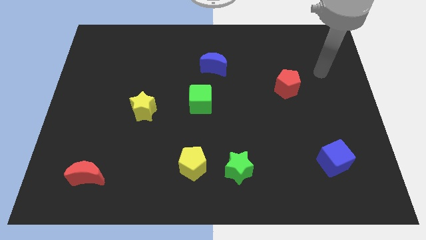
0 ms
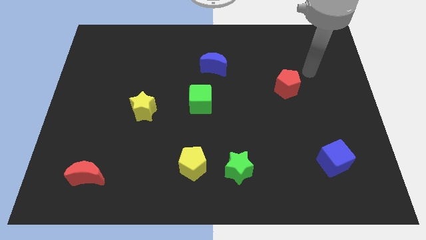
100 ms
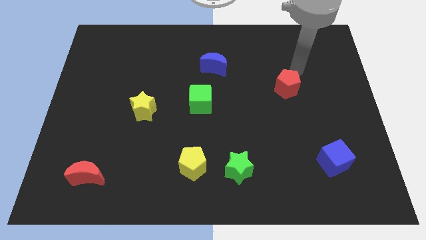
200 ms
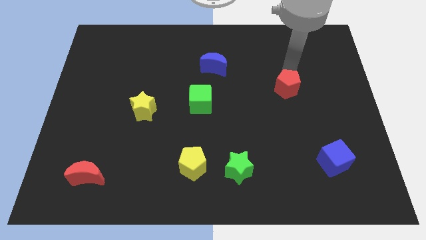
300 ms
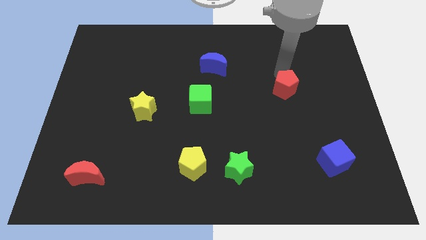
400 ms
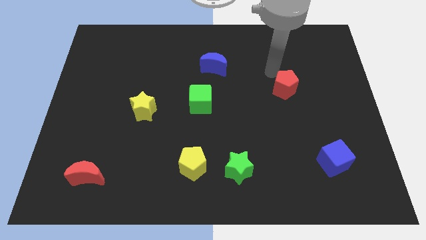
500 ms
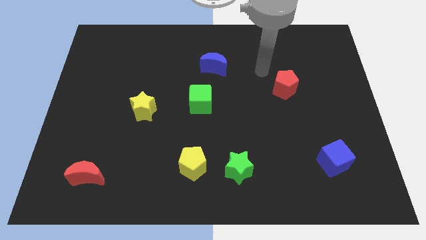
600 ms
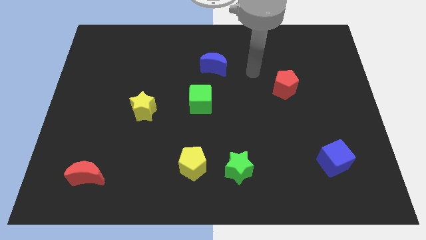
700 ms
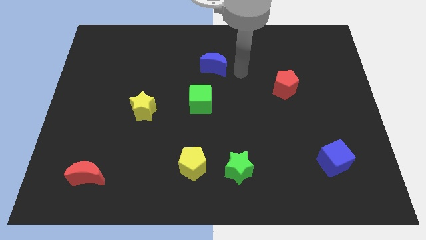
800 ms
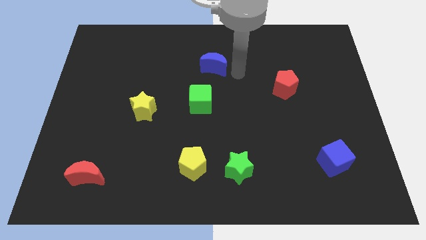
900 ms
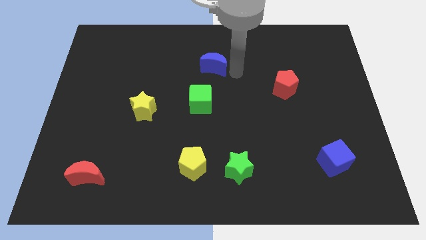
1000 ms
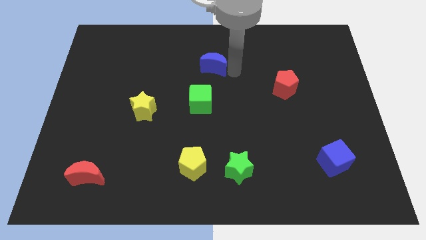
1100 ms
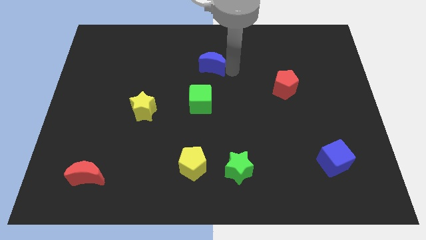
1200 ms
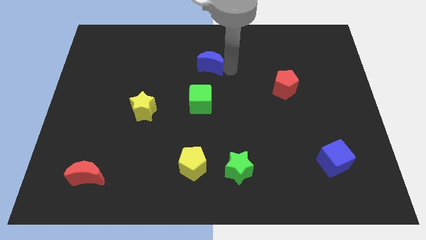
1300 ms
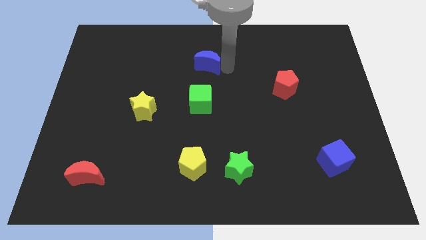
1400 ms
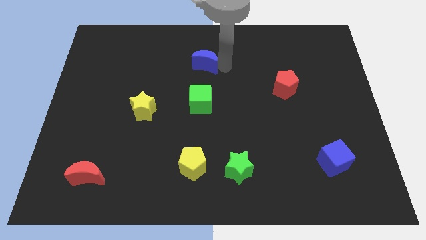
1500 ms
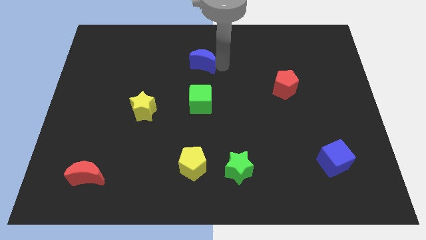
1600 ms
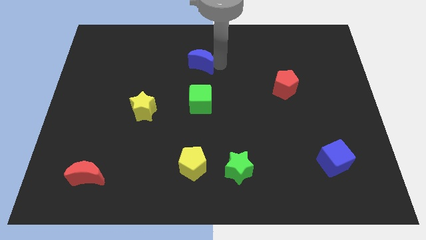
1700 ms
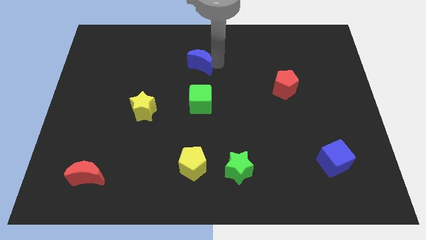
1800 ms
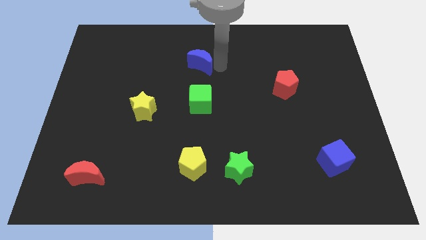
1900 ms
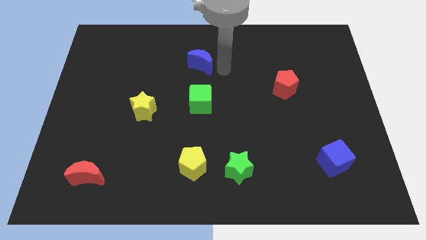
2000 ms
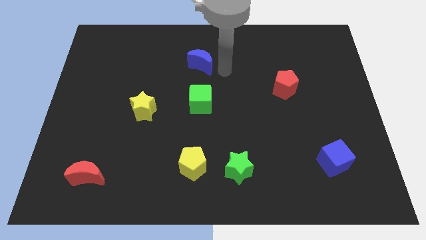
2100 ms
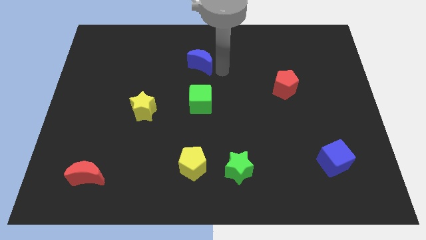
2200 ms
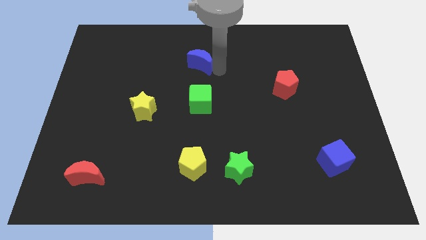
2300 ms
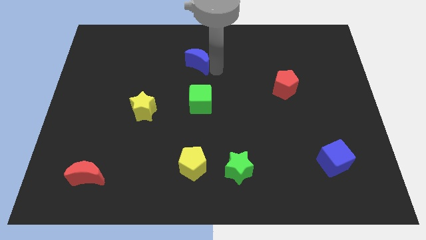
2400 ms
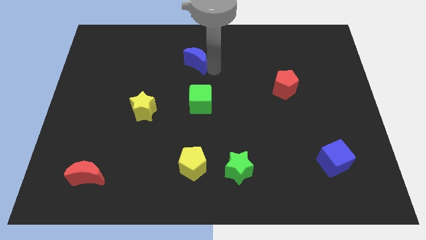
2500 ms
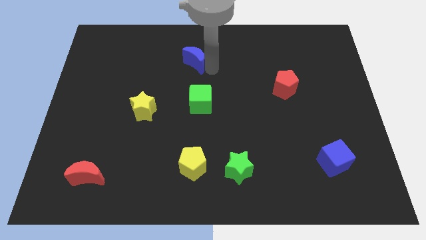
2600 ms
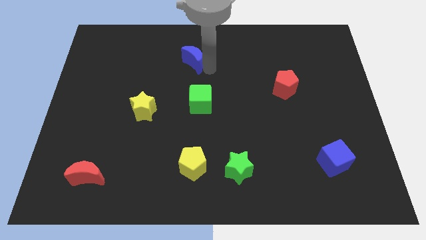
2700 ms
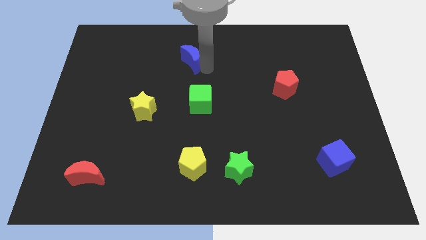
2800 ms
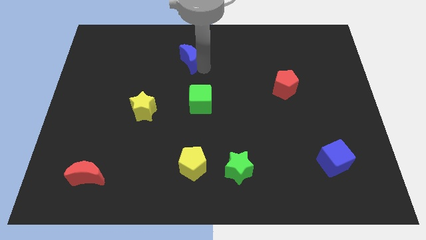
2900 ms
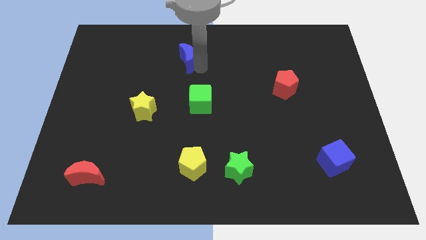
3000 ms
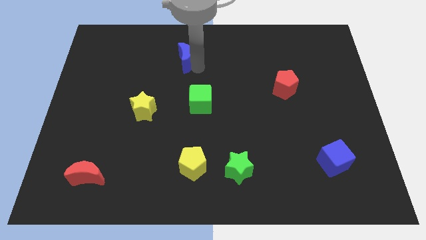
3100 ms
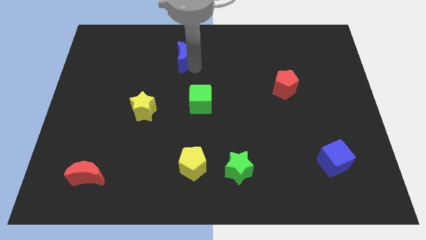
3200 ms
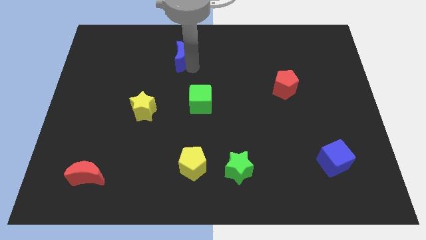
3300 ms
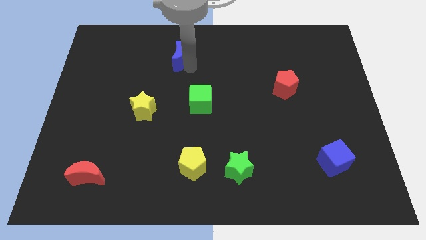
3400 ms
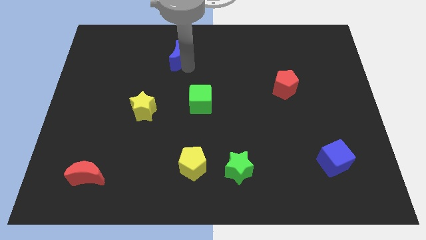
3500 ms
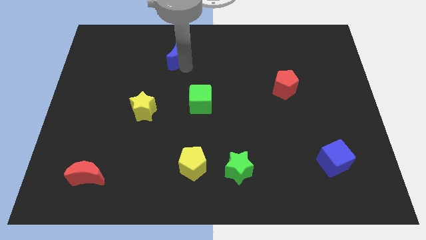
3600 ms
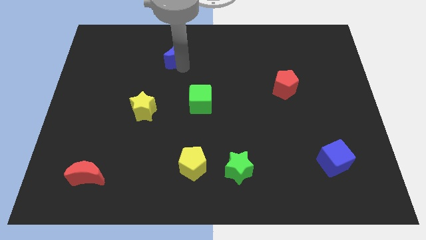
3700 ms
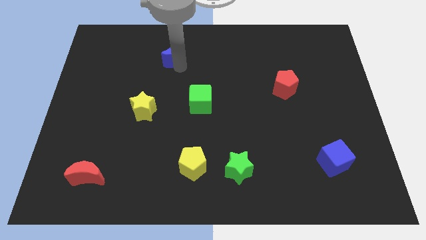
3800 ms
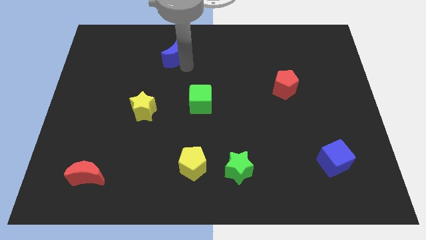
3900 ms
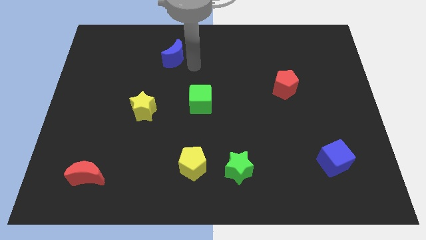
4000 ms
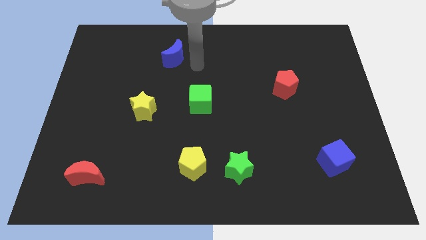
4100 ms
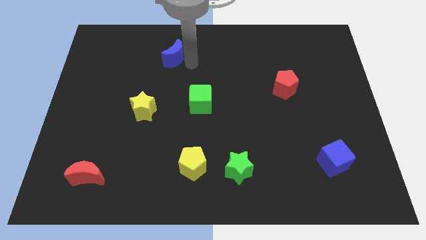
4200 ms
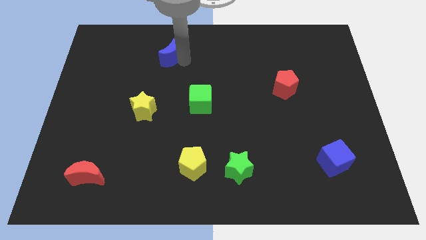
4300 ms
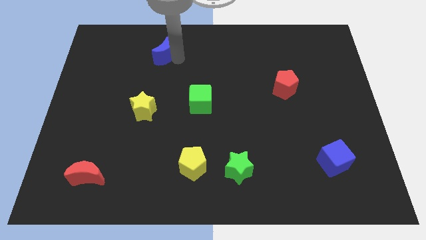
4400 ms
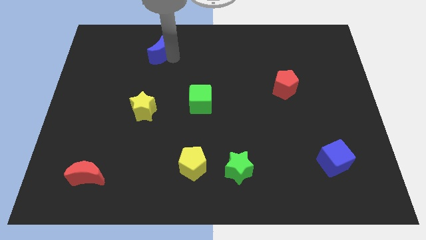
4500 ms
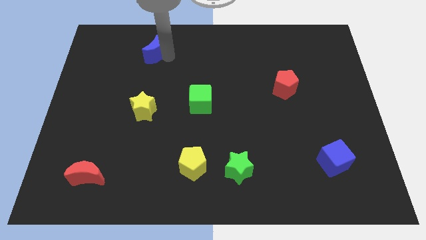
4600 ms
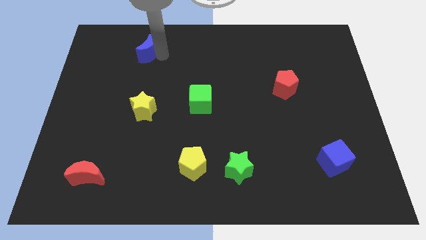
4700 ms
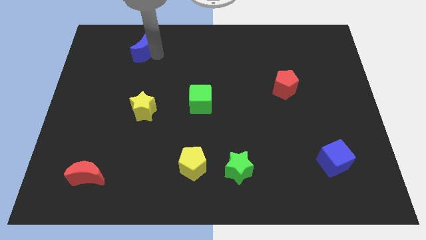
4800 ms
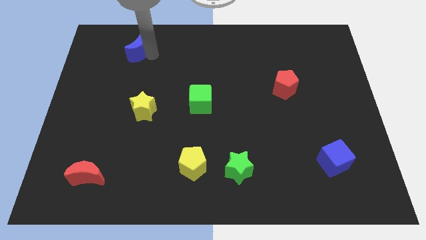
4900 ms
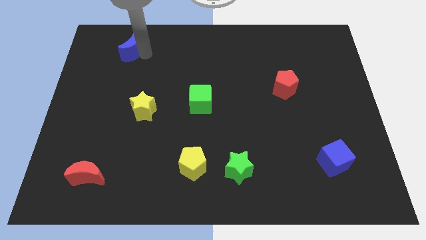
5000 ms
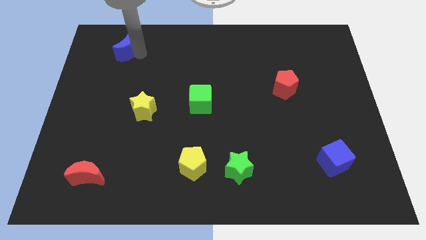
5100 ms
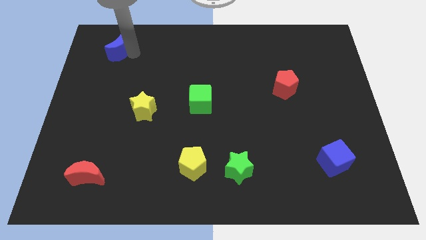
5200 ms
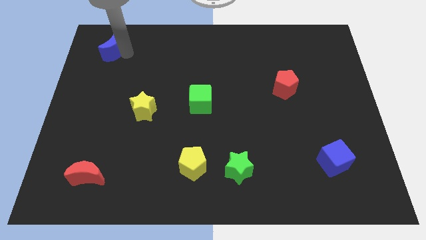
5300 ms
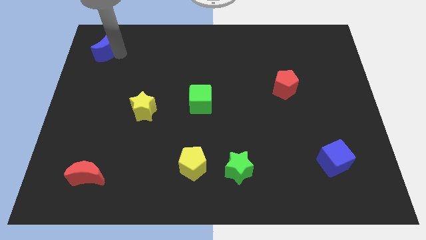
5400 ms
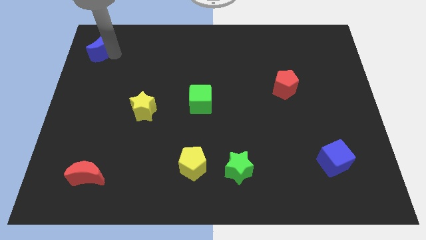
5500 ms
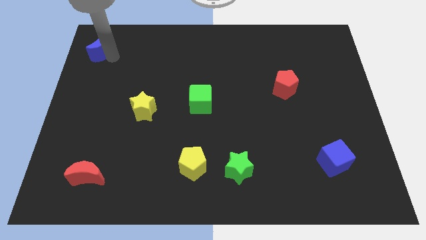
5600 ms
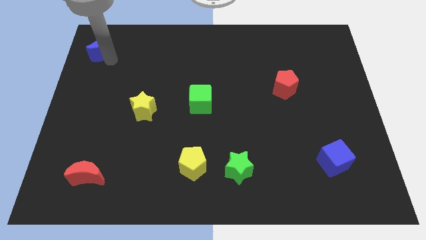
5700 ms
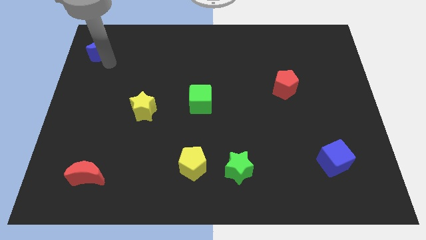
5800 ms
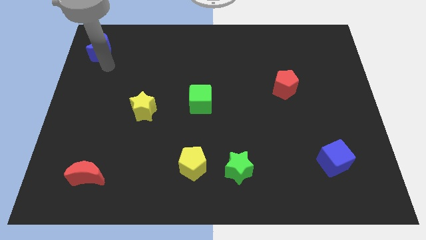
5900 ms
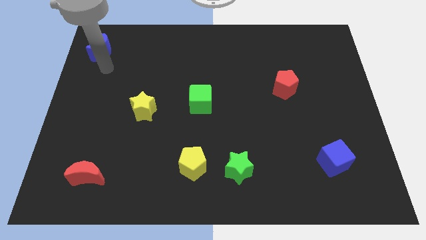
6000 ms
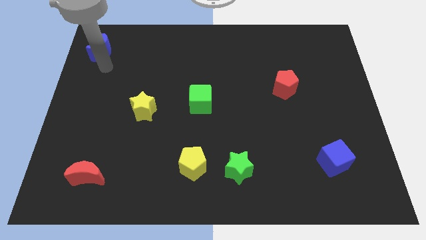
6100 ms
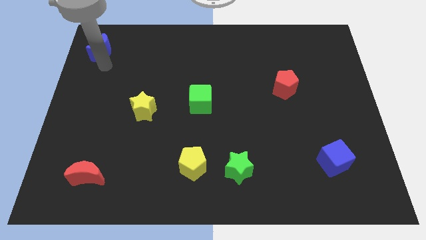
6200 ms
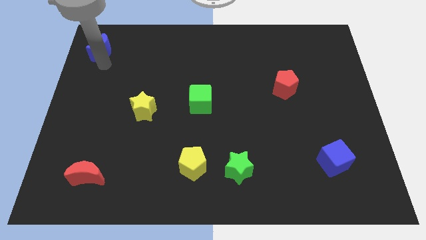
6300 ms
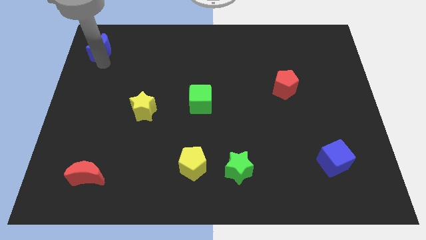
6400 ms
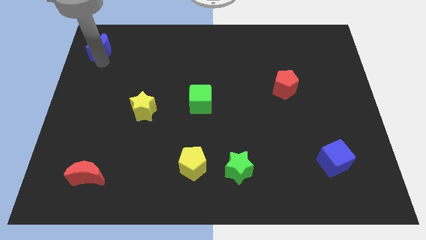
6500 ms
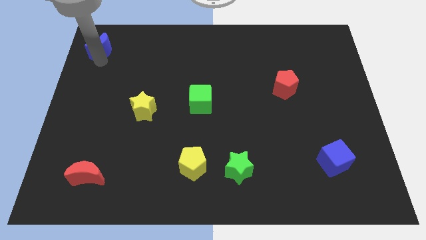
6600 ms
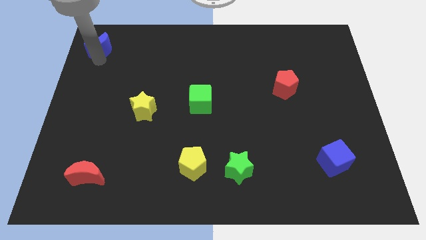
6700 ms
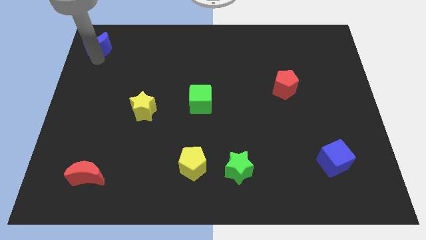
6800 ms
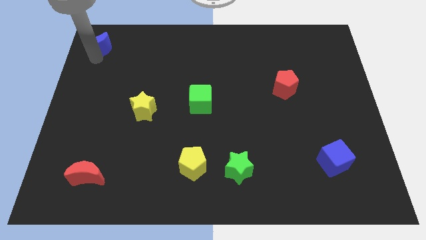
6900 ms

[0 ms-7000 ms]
put the blue moon to the top left of the board

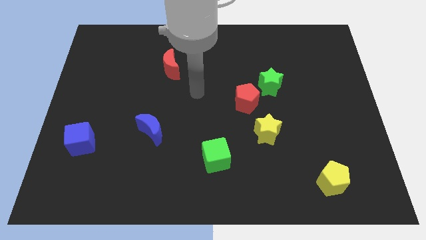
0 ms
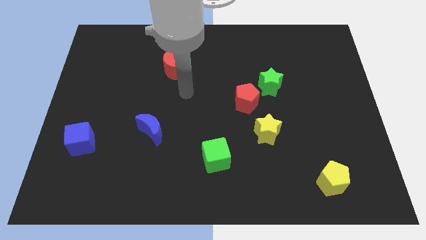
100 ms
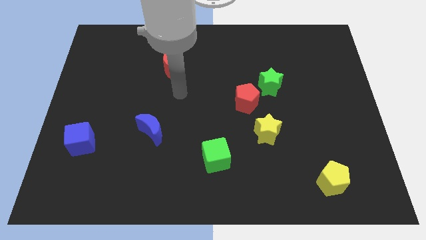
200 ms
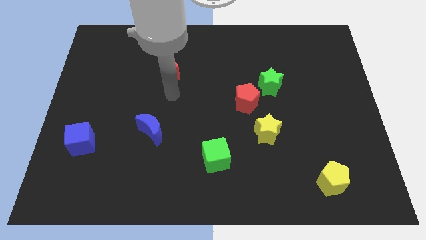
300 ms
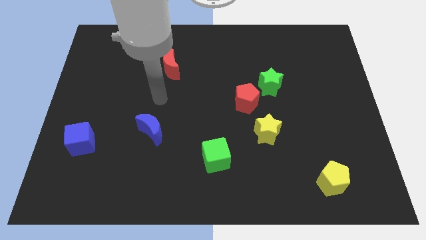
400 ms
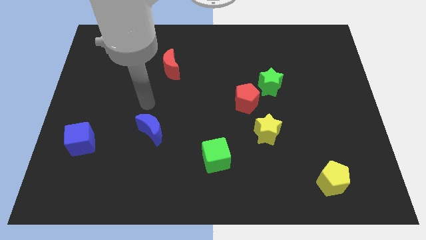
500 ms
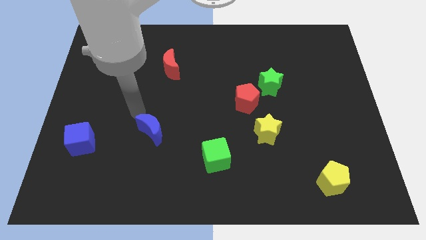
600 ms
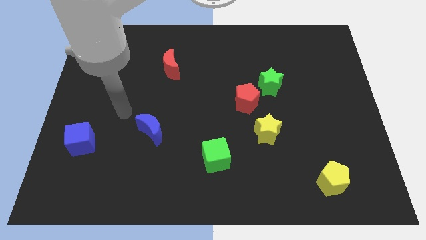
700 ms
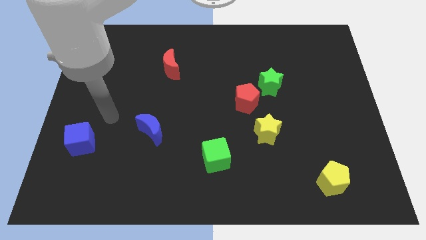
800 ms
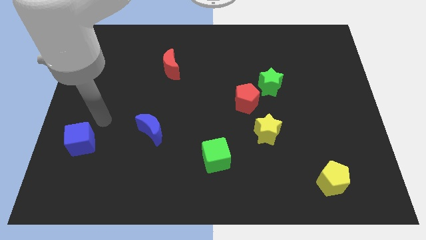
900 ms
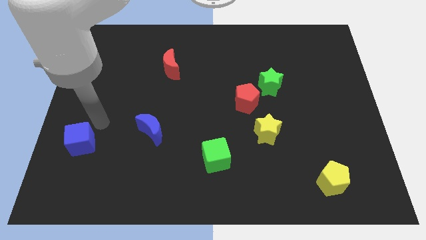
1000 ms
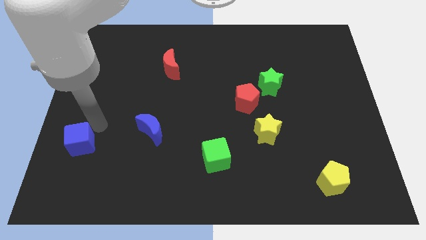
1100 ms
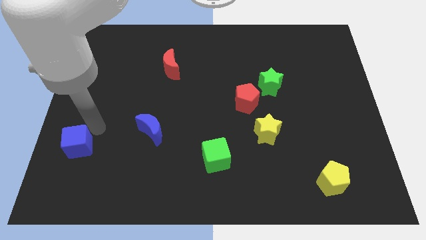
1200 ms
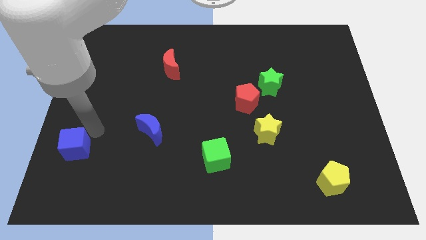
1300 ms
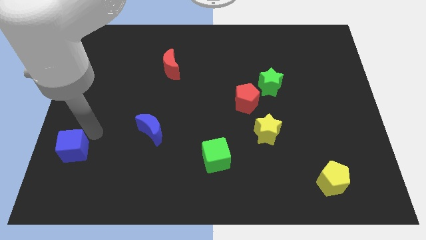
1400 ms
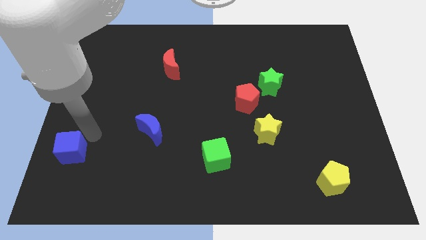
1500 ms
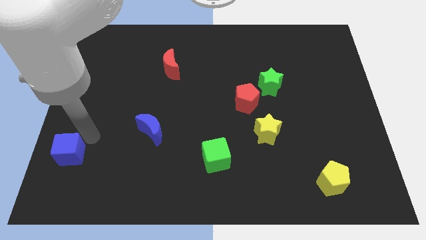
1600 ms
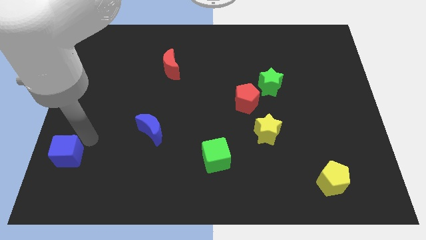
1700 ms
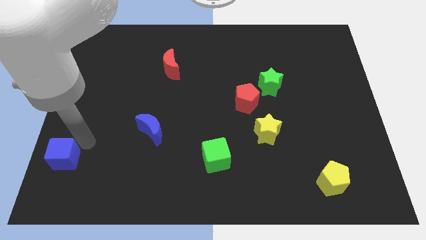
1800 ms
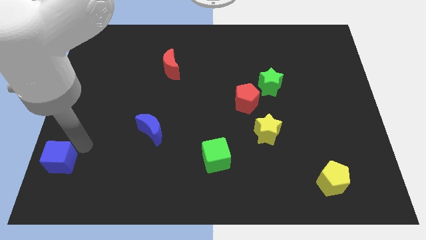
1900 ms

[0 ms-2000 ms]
move the blue cube to the lower left corner
